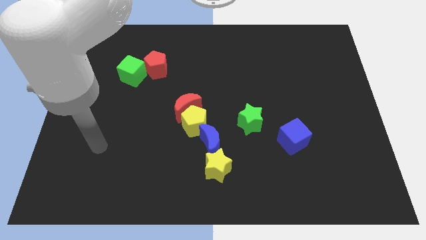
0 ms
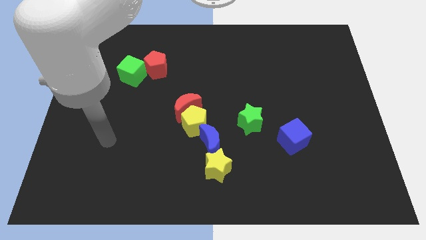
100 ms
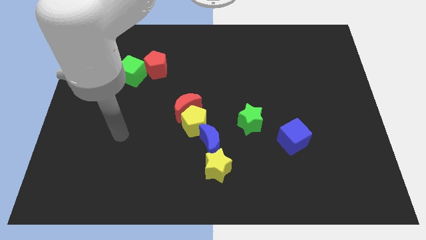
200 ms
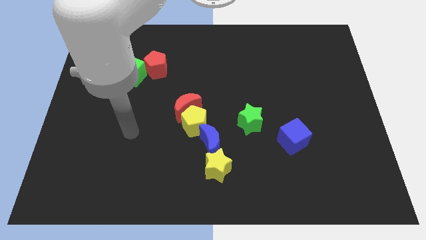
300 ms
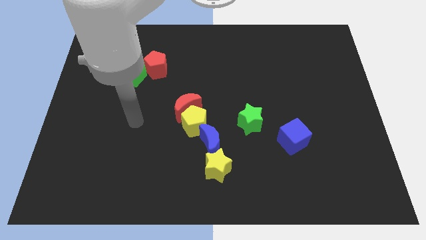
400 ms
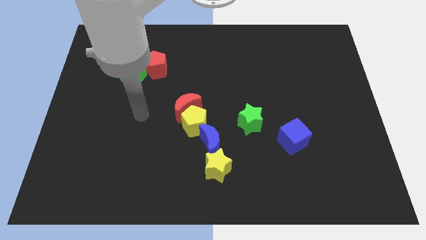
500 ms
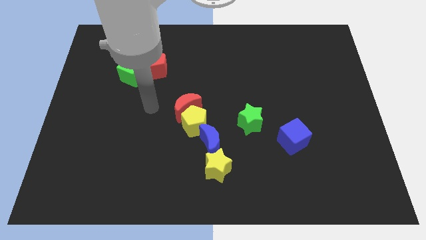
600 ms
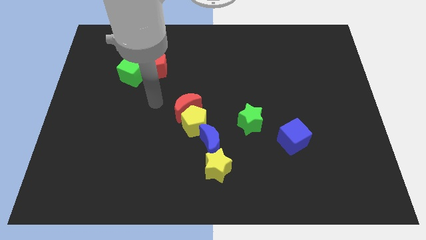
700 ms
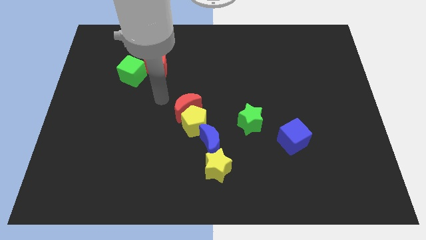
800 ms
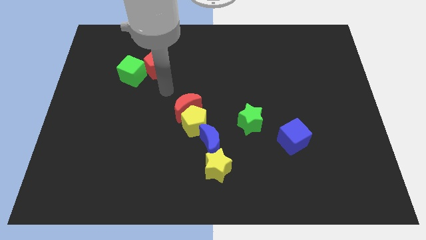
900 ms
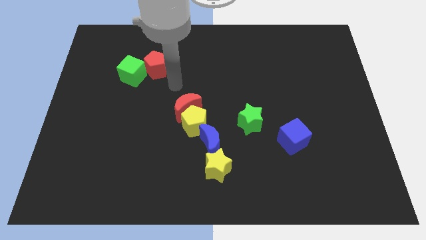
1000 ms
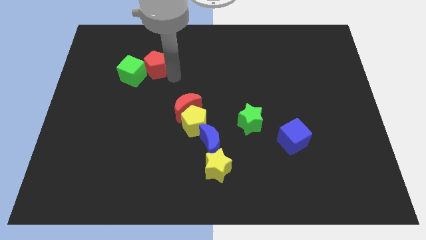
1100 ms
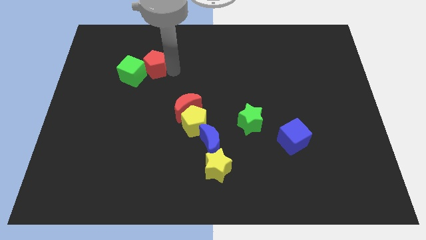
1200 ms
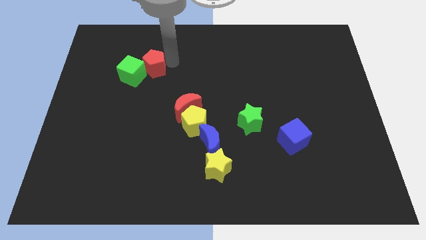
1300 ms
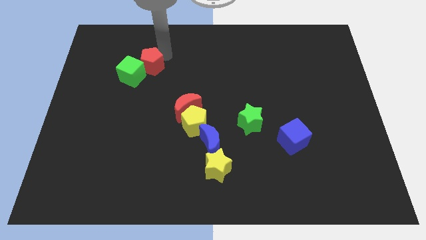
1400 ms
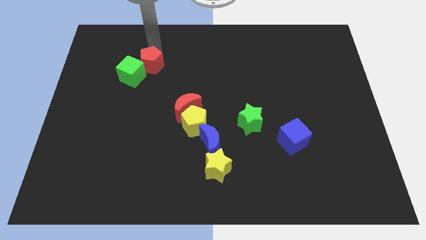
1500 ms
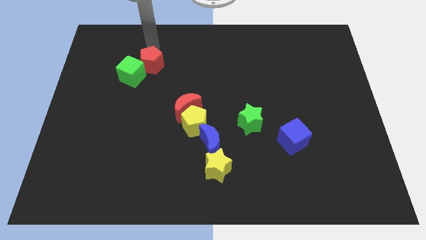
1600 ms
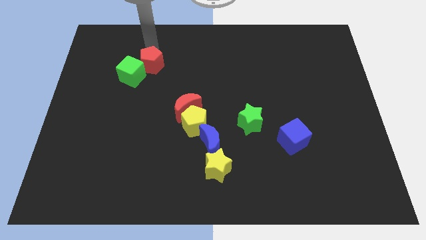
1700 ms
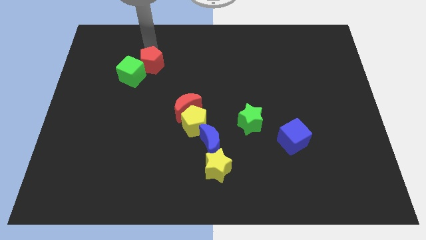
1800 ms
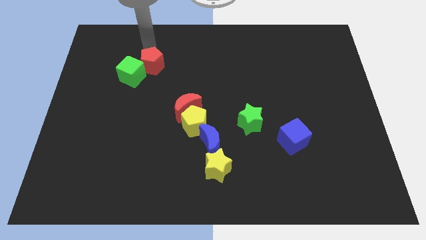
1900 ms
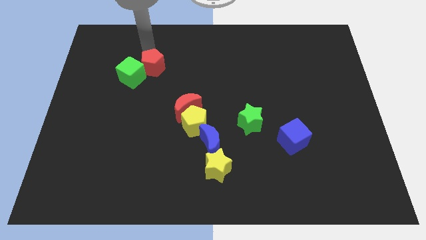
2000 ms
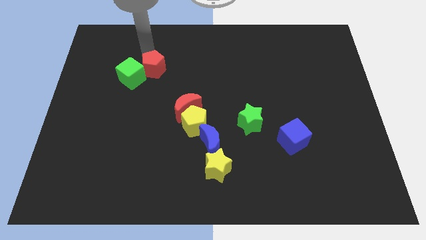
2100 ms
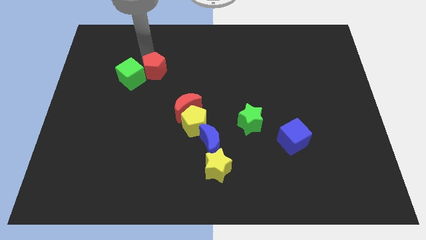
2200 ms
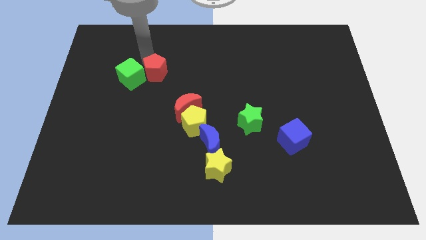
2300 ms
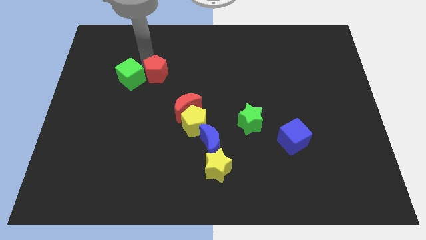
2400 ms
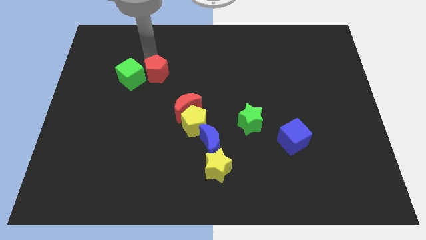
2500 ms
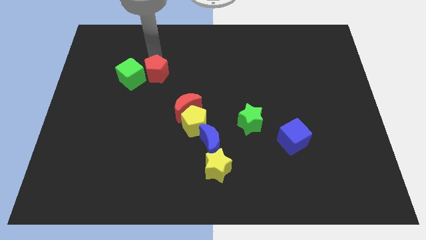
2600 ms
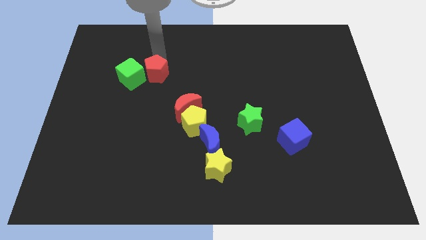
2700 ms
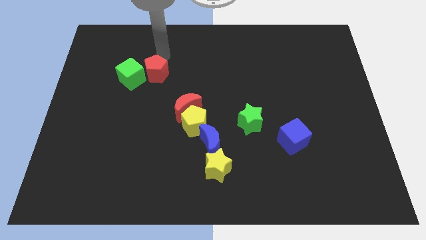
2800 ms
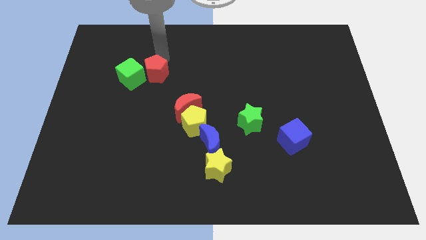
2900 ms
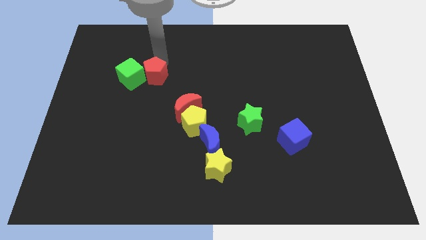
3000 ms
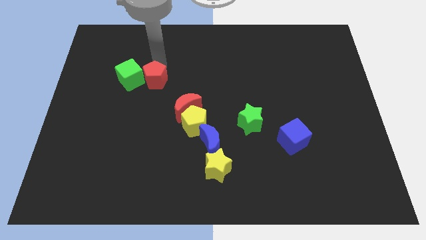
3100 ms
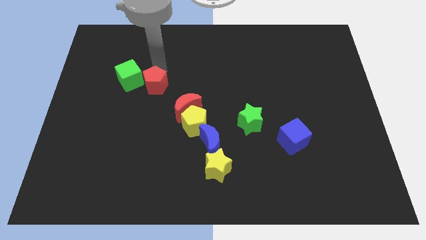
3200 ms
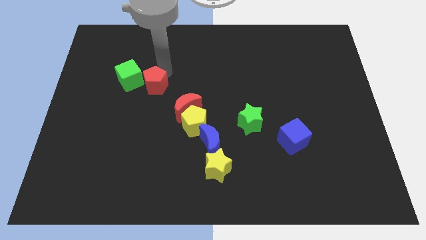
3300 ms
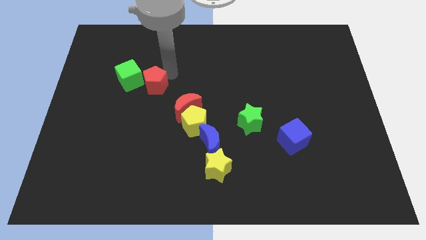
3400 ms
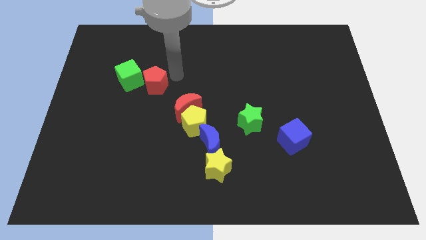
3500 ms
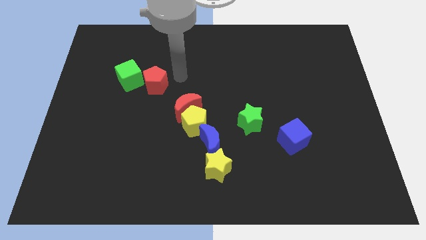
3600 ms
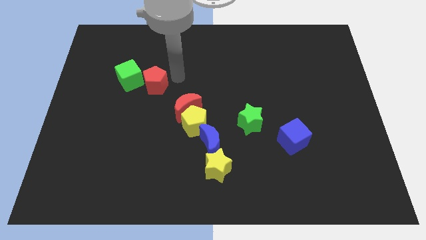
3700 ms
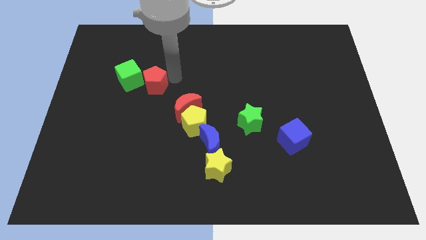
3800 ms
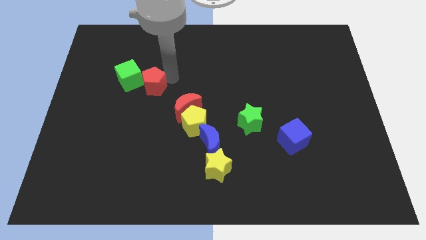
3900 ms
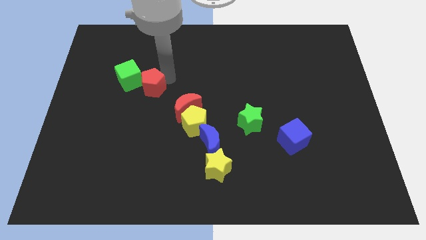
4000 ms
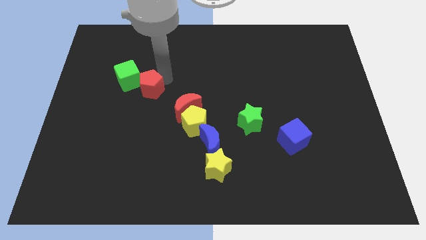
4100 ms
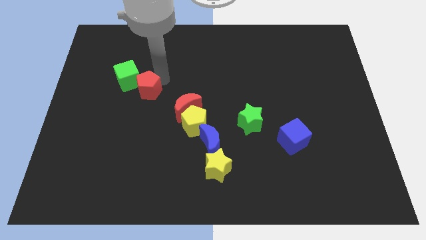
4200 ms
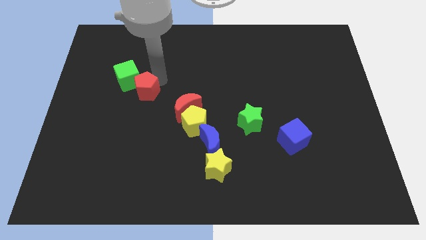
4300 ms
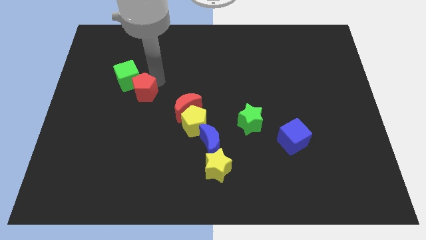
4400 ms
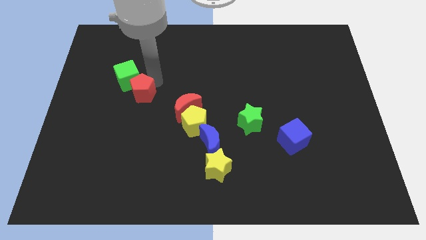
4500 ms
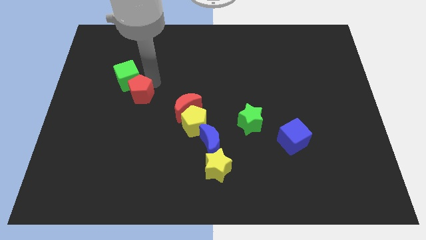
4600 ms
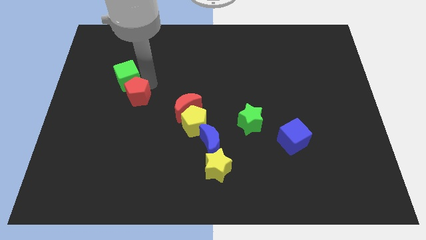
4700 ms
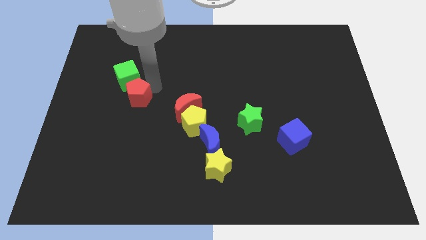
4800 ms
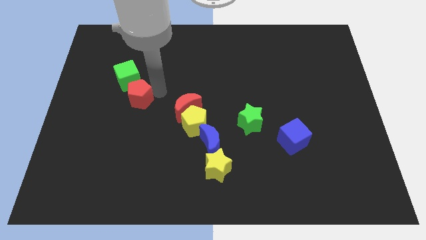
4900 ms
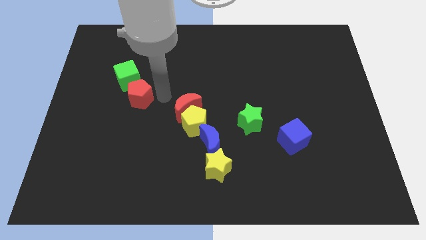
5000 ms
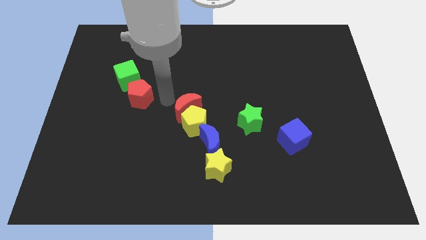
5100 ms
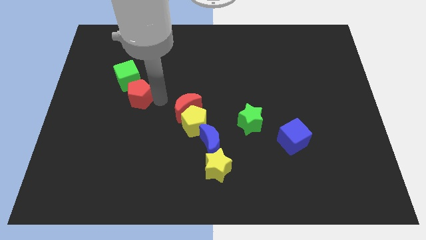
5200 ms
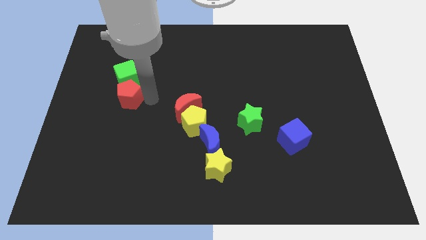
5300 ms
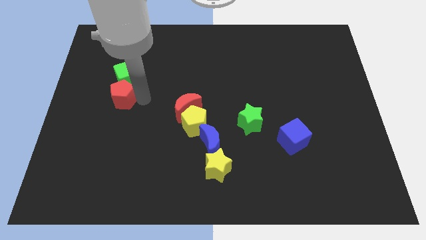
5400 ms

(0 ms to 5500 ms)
push the red pentagon to the bottom left of the green cube
